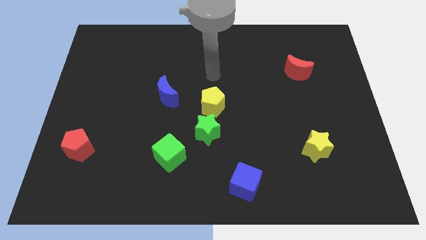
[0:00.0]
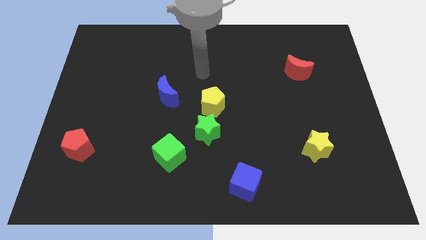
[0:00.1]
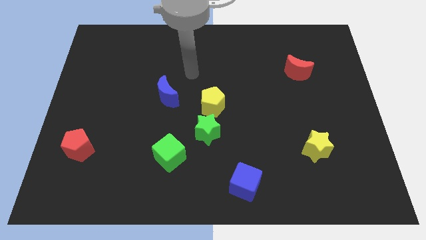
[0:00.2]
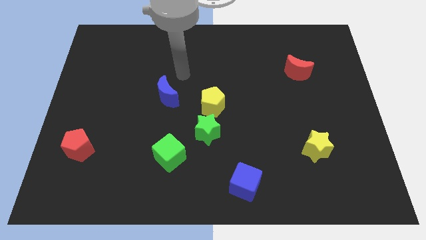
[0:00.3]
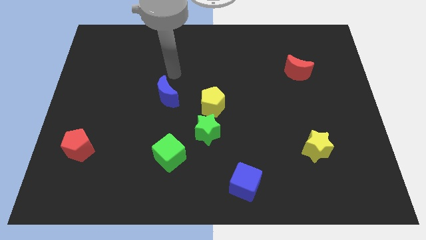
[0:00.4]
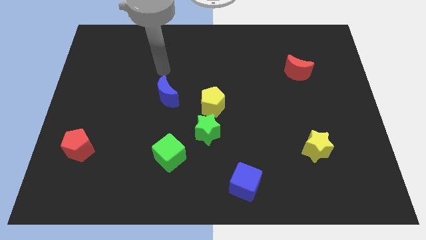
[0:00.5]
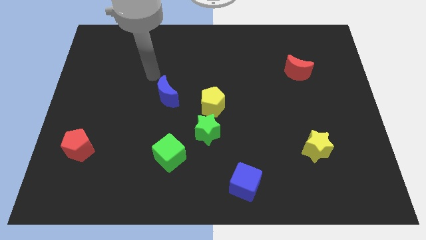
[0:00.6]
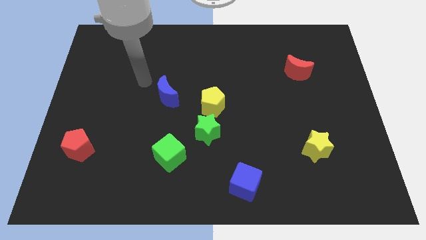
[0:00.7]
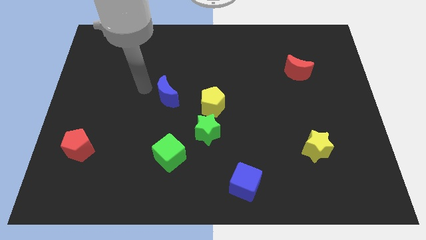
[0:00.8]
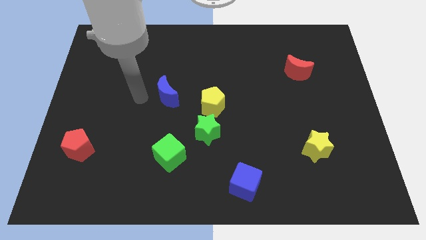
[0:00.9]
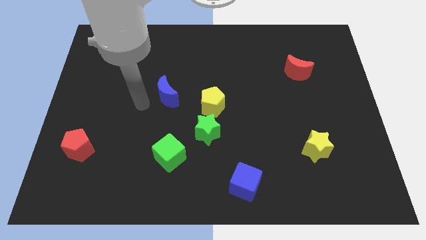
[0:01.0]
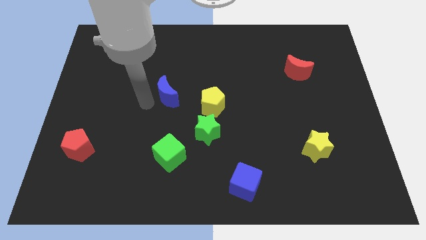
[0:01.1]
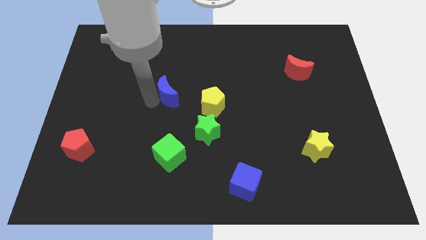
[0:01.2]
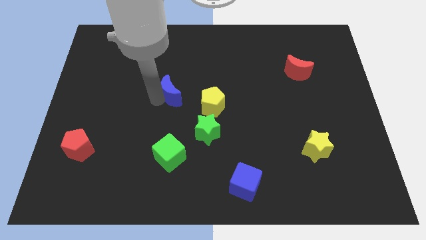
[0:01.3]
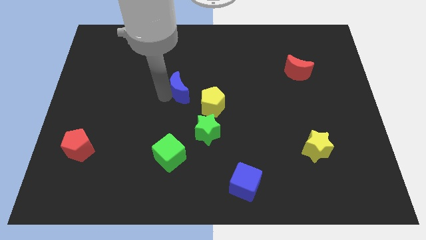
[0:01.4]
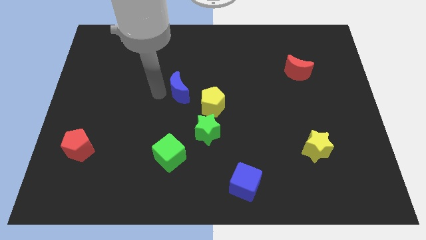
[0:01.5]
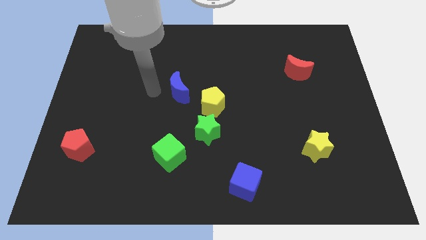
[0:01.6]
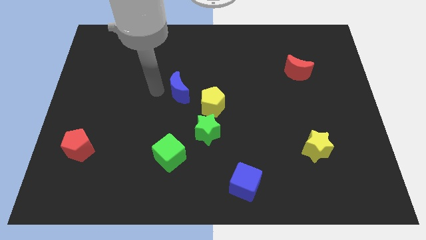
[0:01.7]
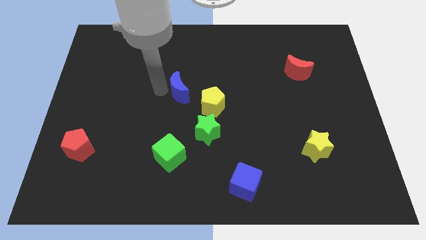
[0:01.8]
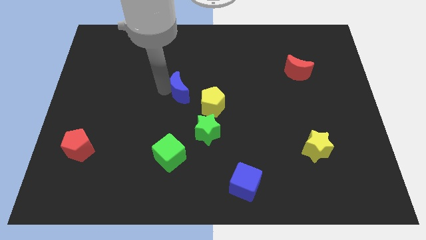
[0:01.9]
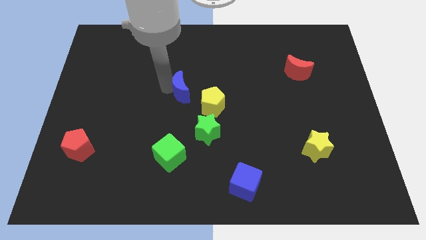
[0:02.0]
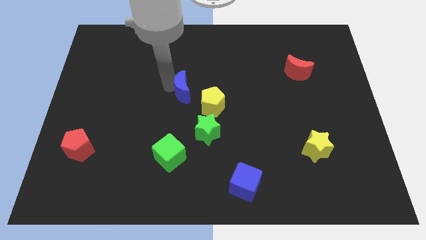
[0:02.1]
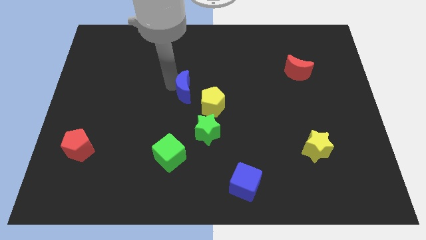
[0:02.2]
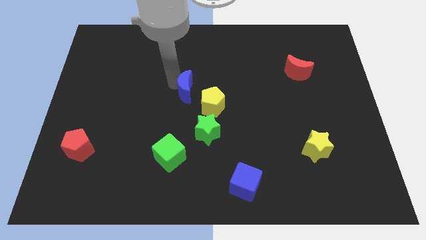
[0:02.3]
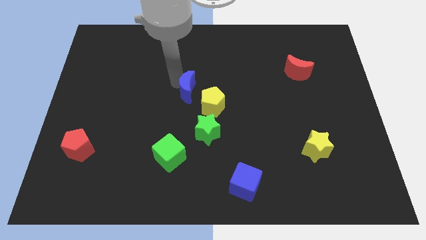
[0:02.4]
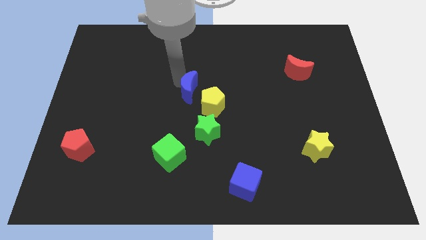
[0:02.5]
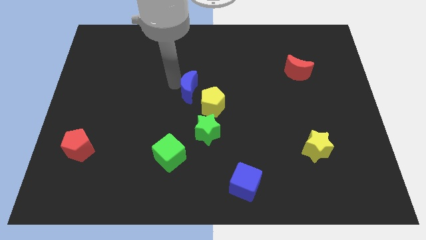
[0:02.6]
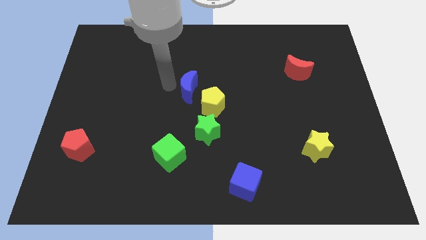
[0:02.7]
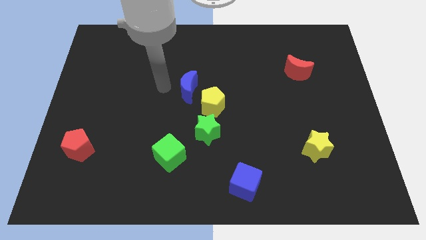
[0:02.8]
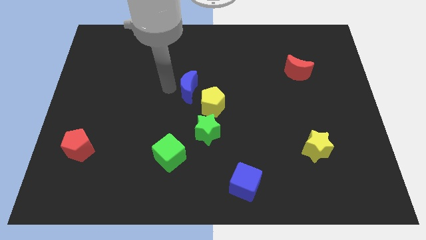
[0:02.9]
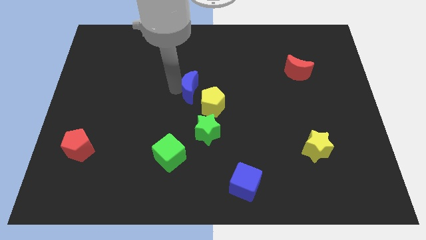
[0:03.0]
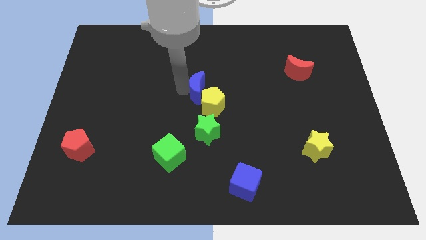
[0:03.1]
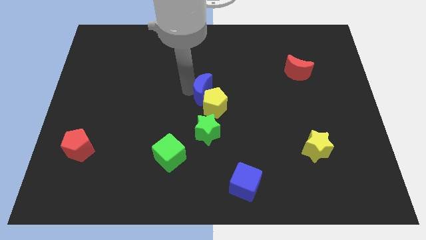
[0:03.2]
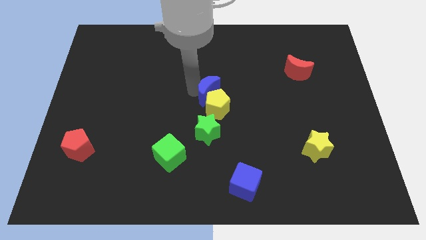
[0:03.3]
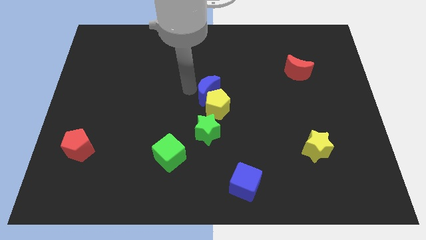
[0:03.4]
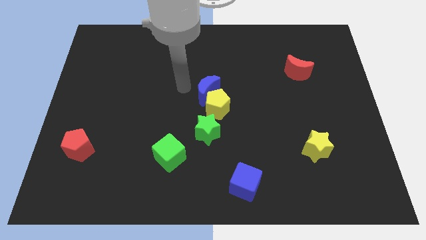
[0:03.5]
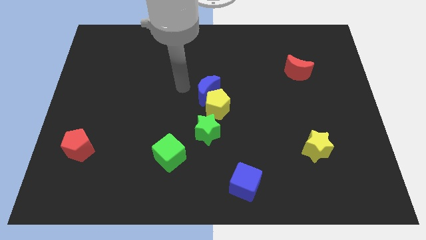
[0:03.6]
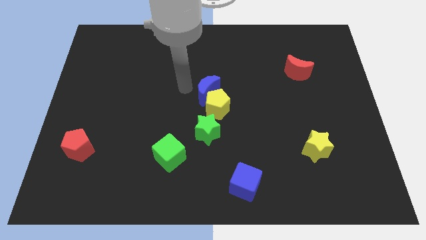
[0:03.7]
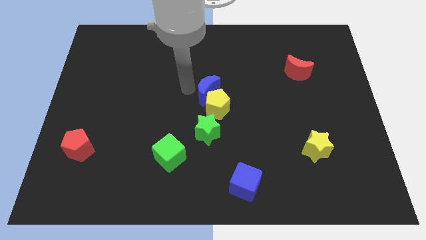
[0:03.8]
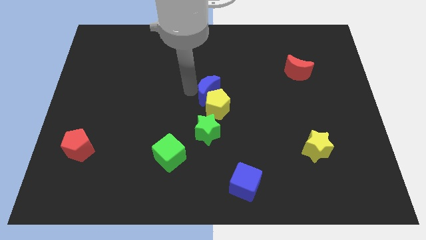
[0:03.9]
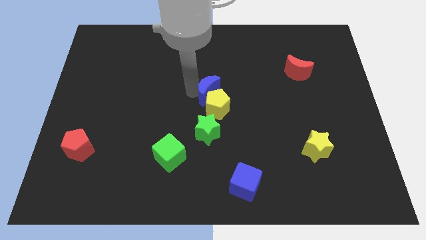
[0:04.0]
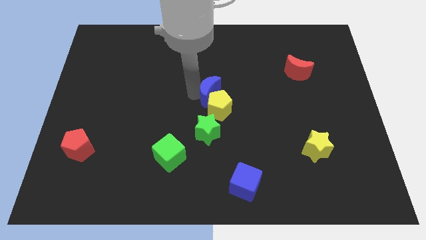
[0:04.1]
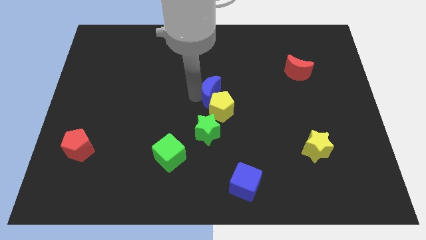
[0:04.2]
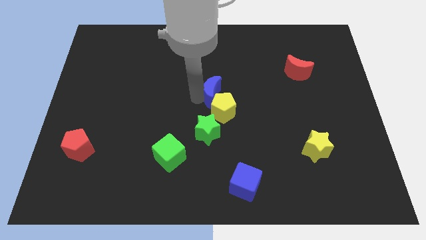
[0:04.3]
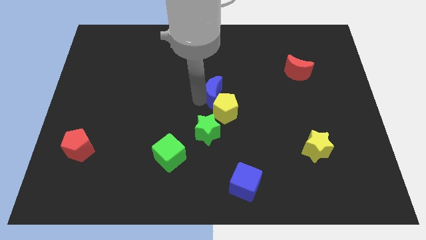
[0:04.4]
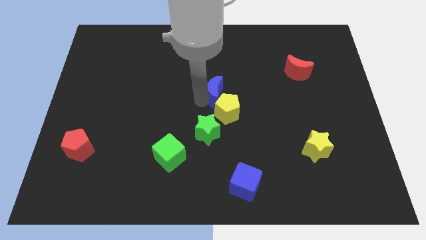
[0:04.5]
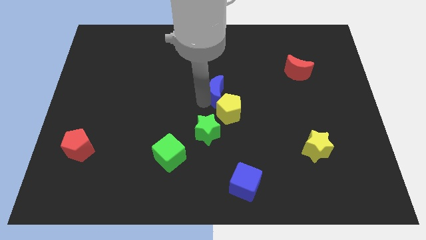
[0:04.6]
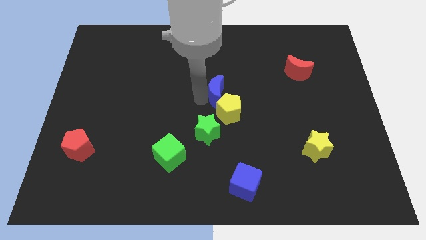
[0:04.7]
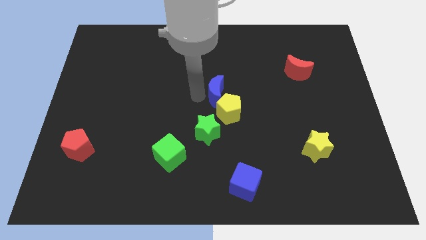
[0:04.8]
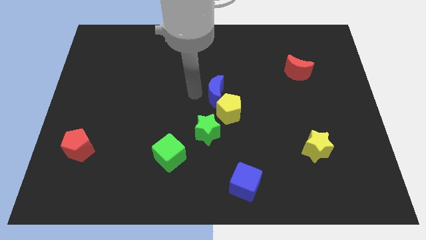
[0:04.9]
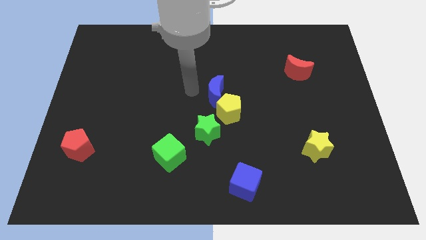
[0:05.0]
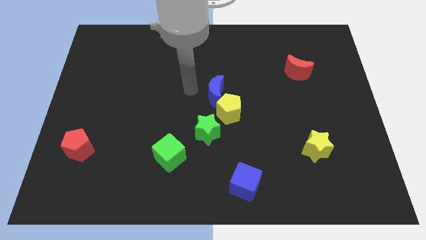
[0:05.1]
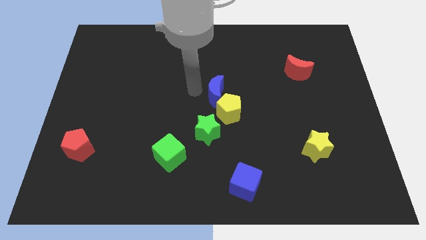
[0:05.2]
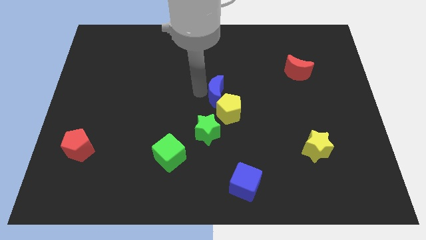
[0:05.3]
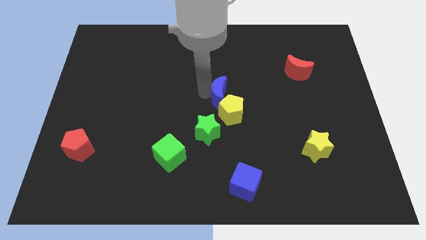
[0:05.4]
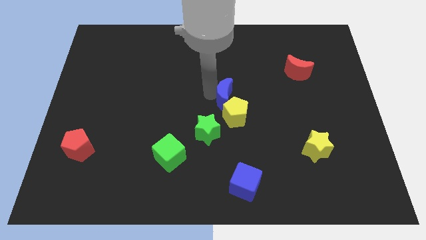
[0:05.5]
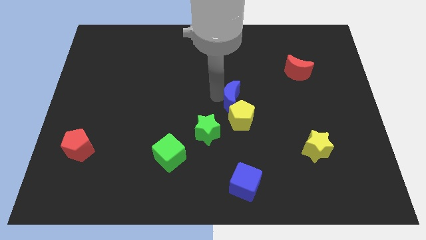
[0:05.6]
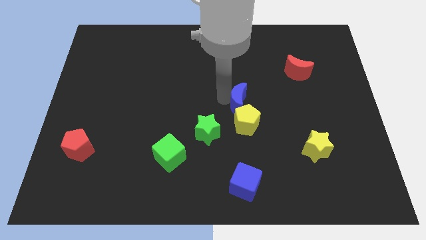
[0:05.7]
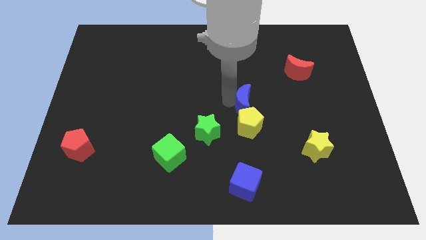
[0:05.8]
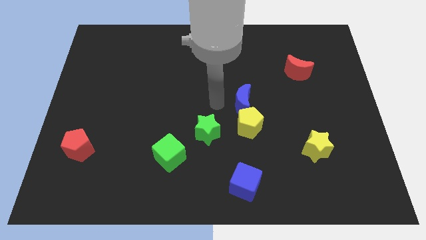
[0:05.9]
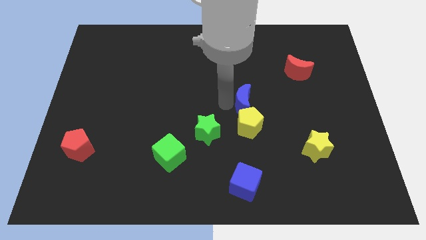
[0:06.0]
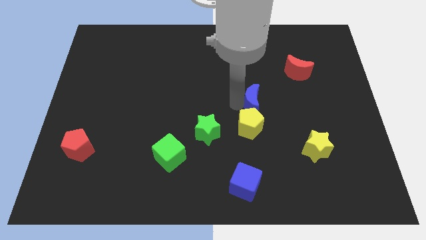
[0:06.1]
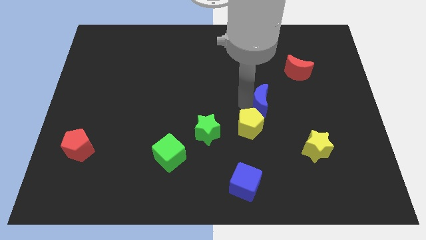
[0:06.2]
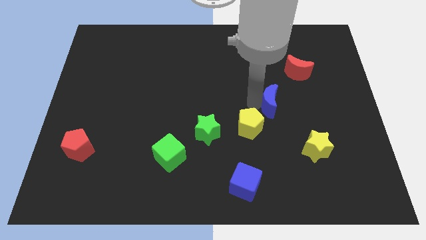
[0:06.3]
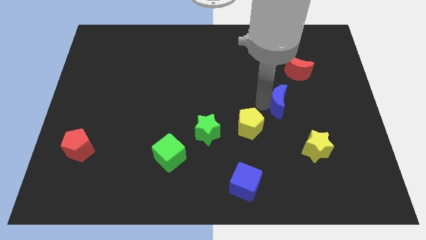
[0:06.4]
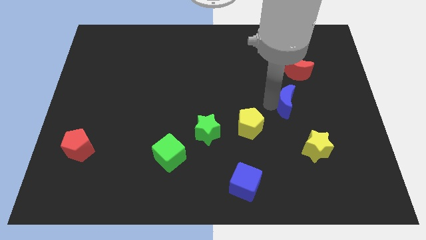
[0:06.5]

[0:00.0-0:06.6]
slide the blue moon below the red moon
